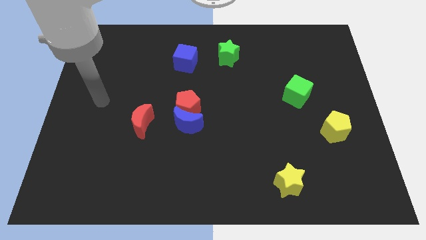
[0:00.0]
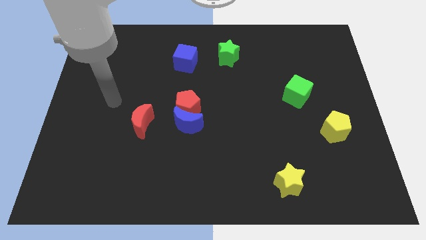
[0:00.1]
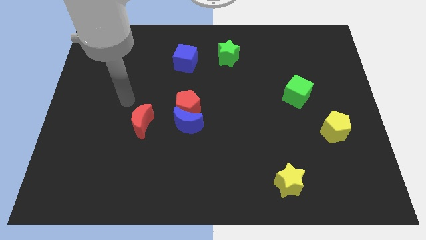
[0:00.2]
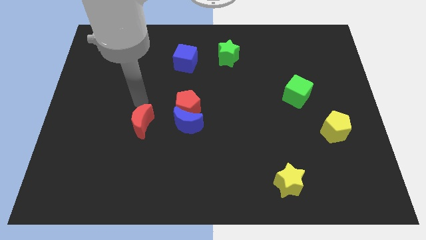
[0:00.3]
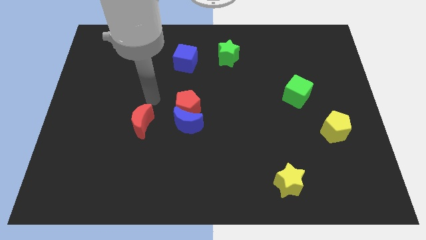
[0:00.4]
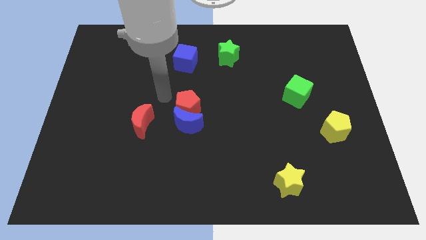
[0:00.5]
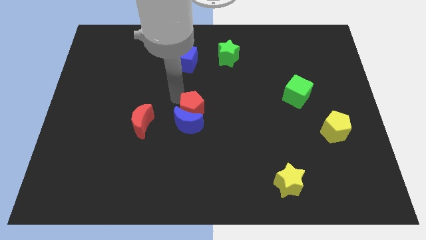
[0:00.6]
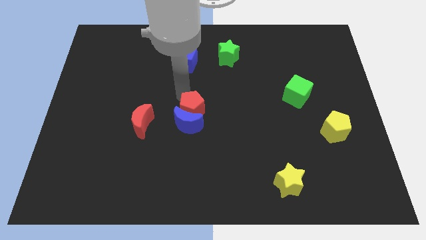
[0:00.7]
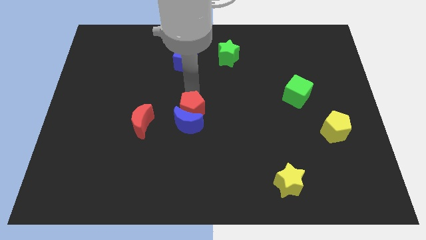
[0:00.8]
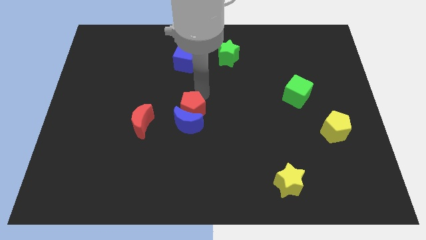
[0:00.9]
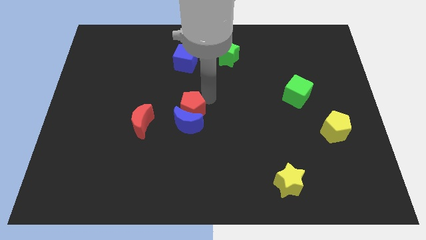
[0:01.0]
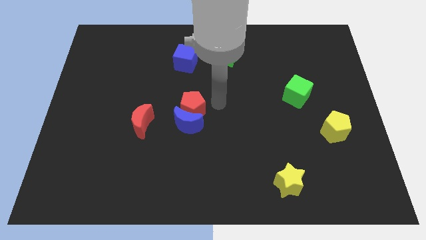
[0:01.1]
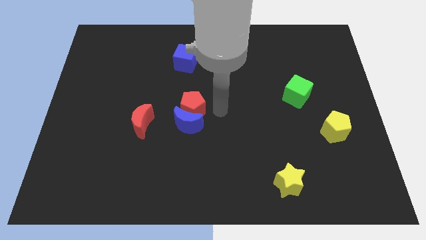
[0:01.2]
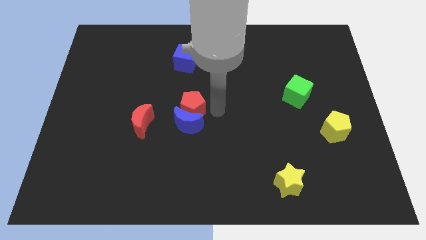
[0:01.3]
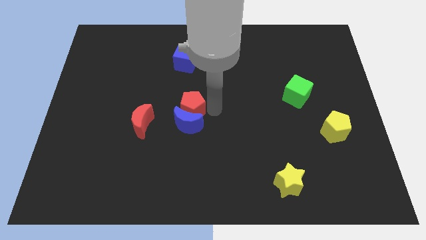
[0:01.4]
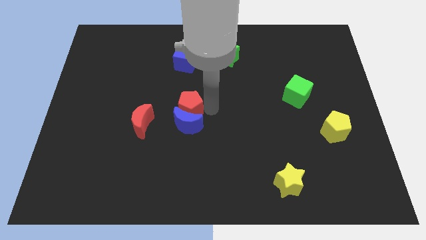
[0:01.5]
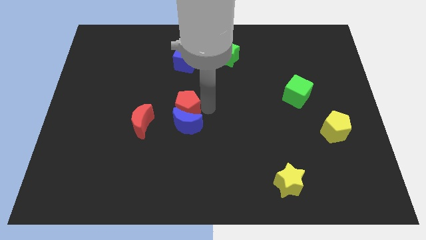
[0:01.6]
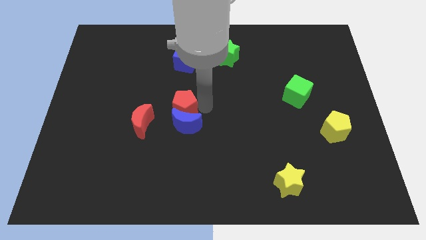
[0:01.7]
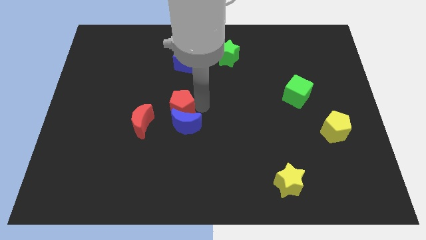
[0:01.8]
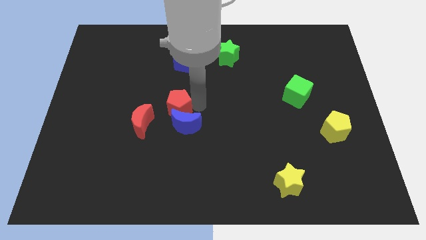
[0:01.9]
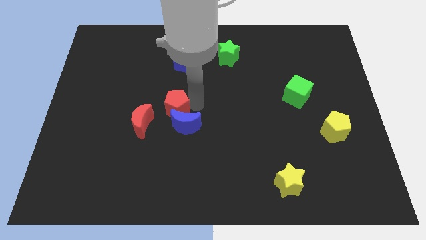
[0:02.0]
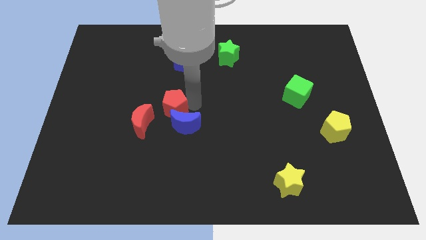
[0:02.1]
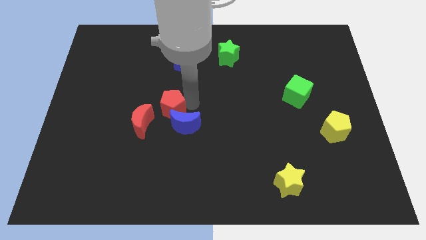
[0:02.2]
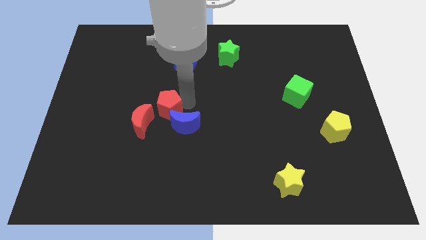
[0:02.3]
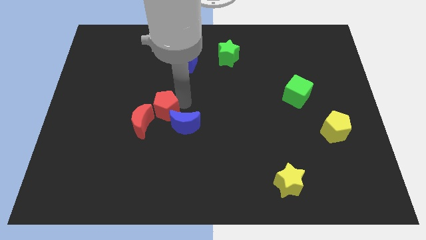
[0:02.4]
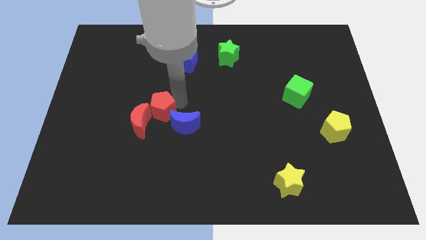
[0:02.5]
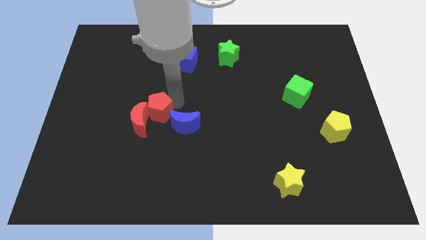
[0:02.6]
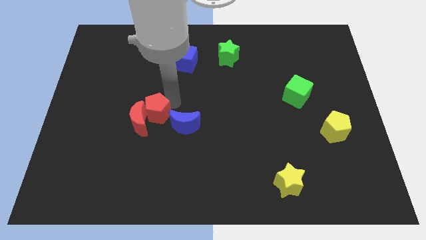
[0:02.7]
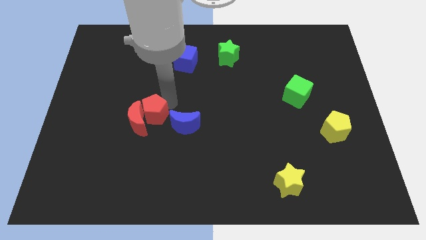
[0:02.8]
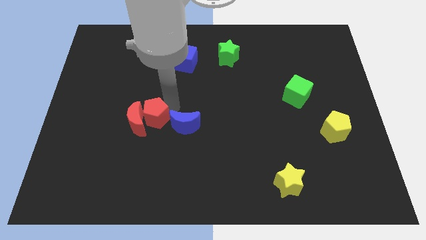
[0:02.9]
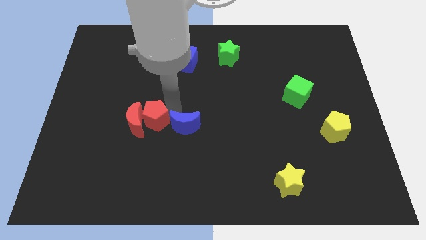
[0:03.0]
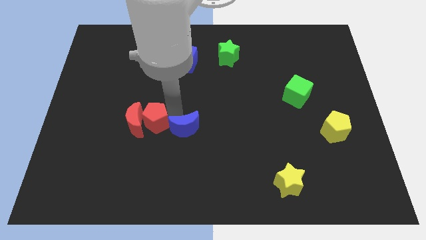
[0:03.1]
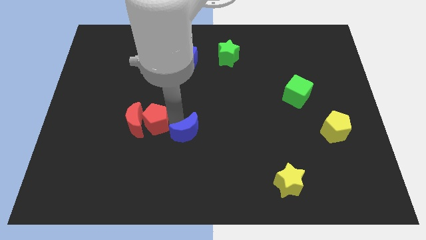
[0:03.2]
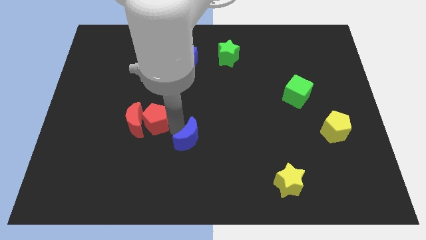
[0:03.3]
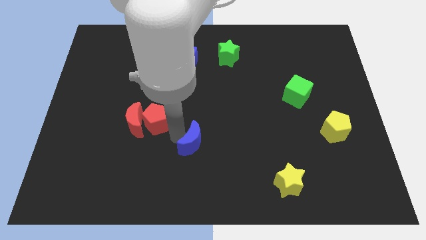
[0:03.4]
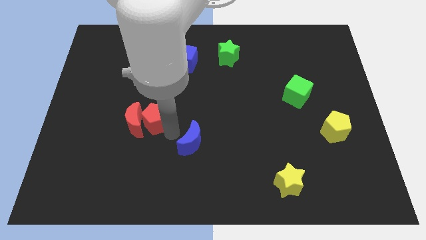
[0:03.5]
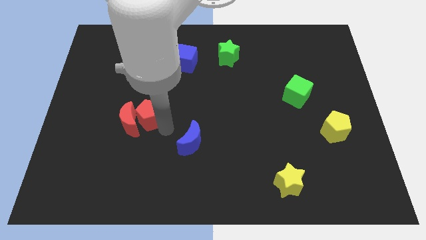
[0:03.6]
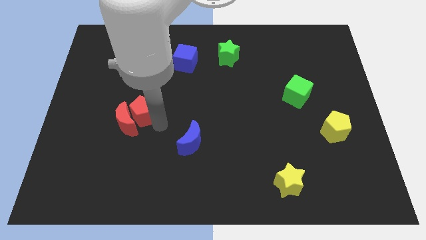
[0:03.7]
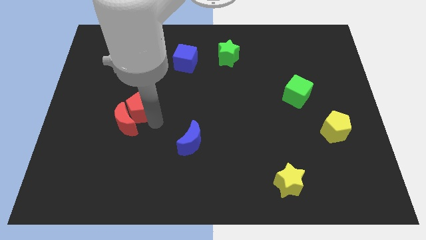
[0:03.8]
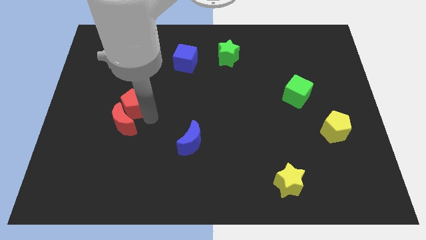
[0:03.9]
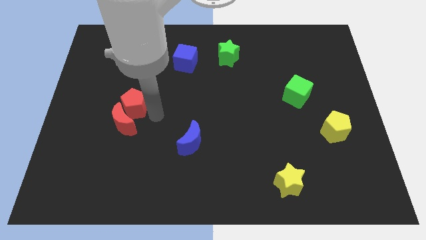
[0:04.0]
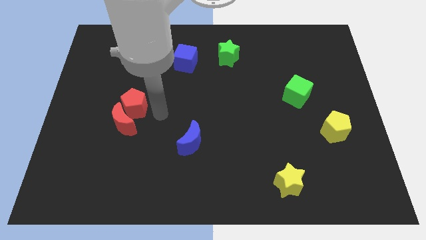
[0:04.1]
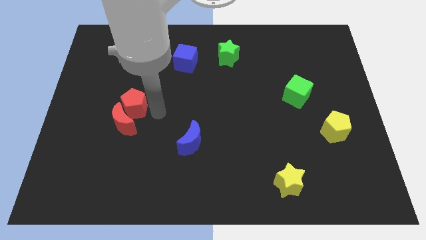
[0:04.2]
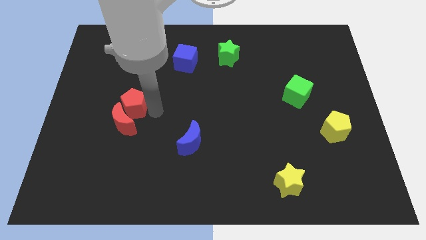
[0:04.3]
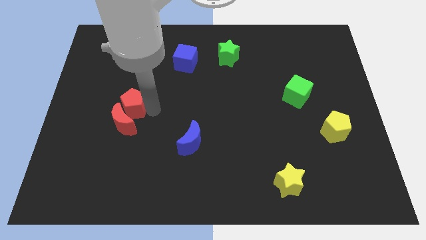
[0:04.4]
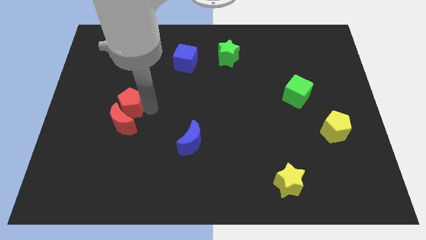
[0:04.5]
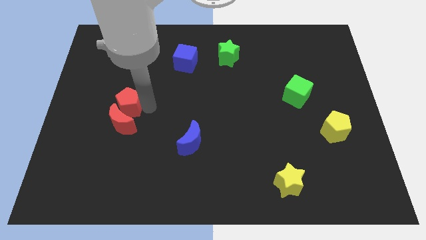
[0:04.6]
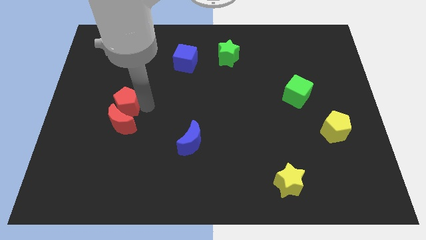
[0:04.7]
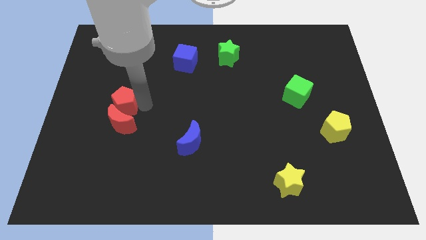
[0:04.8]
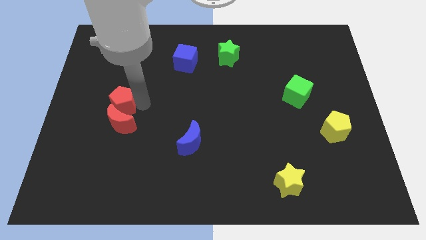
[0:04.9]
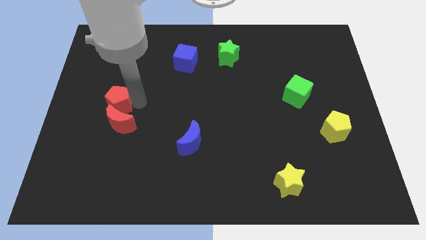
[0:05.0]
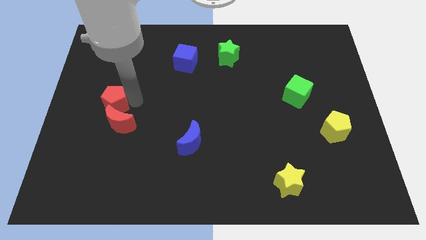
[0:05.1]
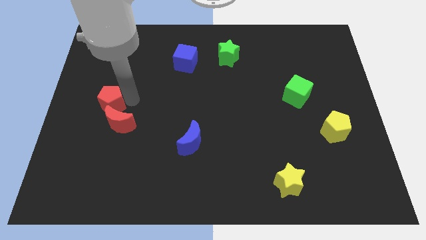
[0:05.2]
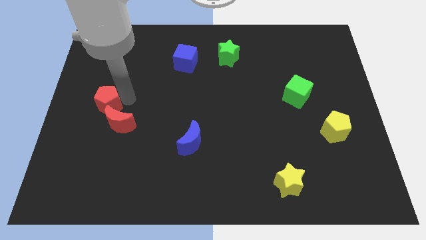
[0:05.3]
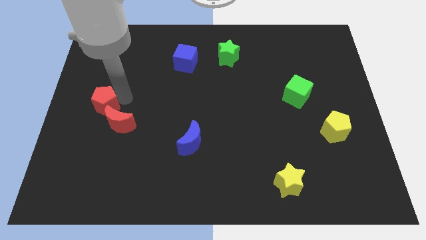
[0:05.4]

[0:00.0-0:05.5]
move the red pentagon to the left side of the board

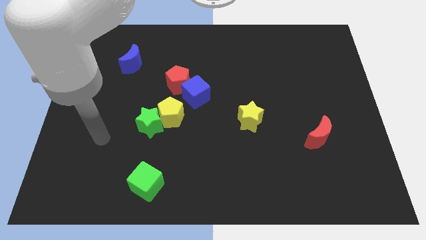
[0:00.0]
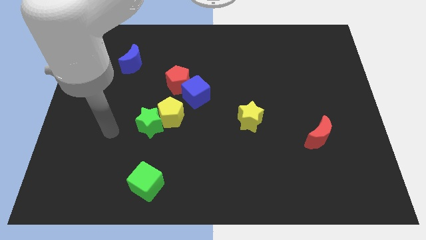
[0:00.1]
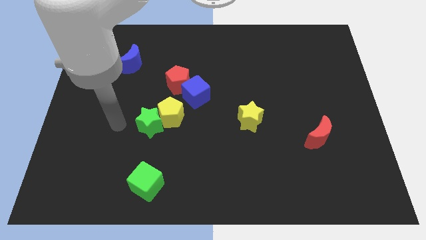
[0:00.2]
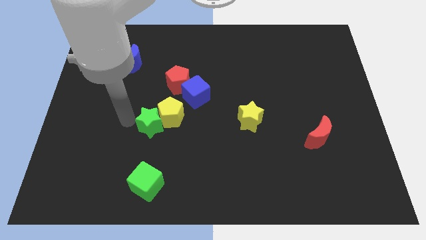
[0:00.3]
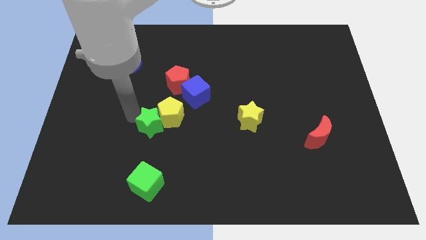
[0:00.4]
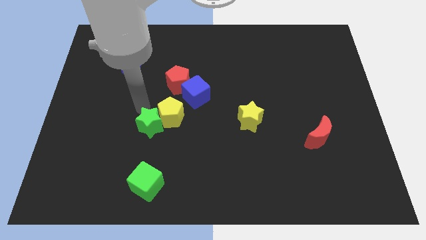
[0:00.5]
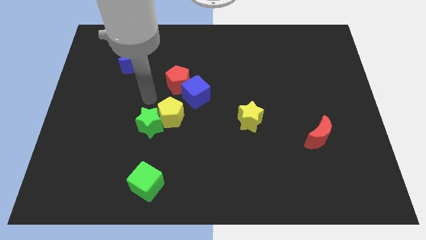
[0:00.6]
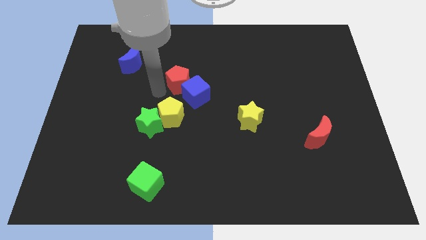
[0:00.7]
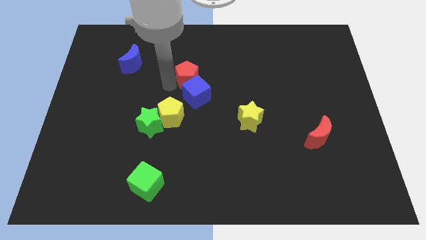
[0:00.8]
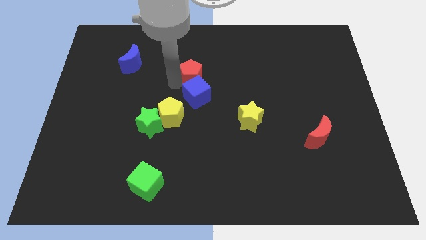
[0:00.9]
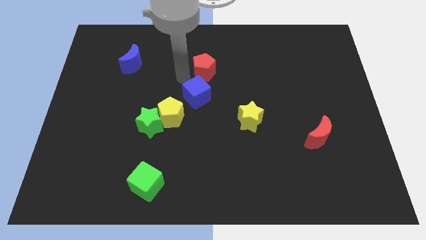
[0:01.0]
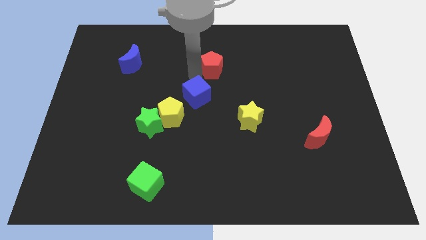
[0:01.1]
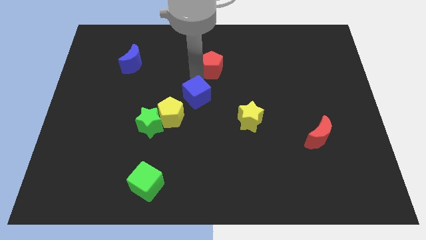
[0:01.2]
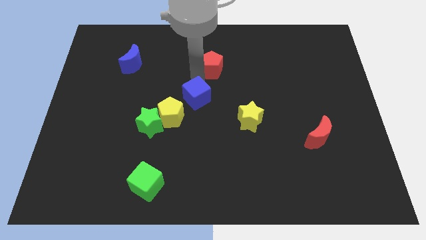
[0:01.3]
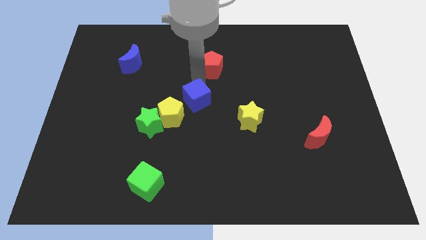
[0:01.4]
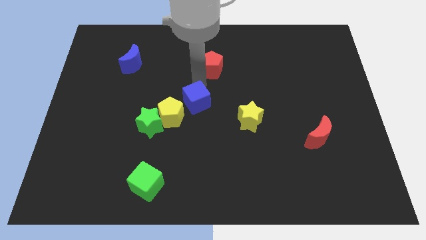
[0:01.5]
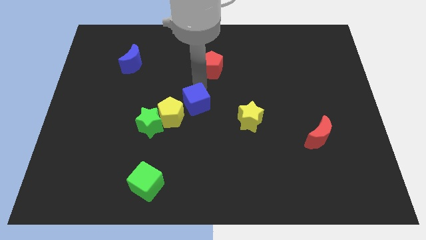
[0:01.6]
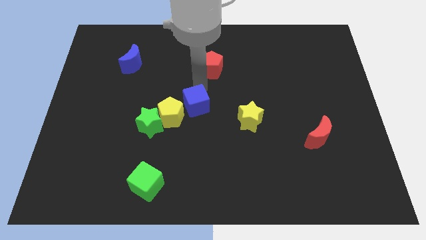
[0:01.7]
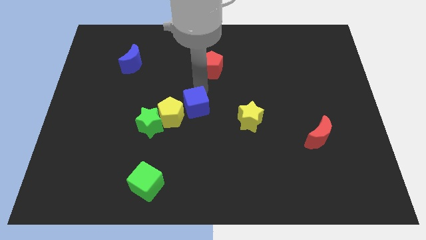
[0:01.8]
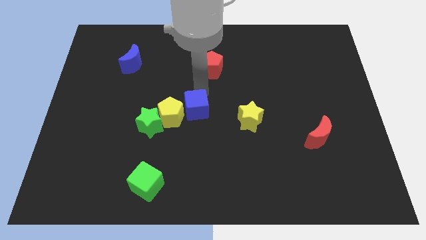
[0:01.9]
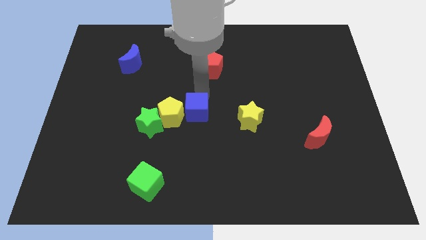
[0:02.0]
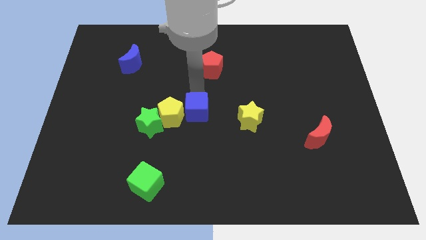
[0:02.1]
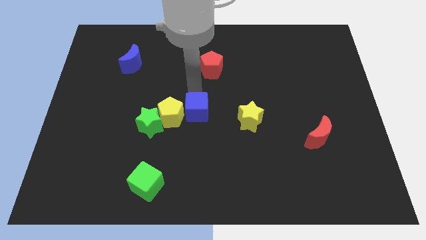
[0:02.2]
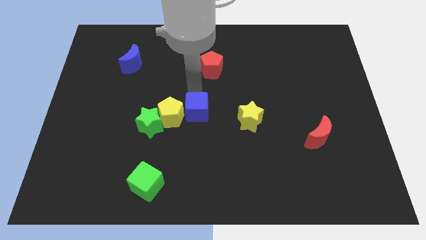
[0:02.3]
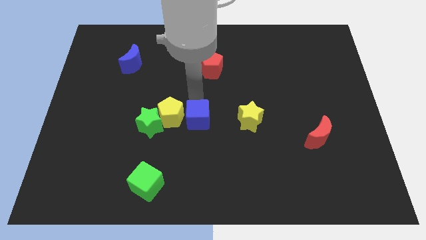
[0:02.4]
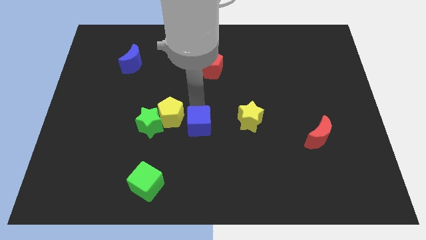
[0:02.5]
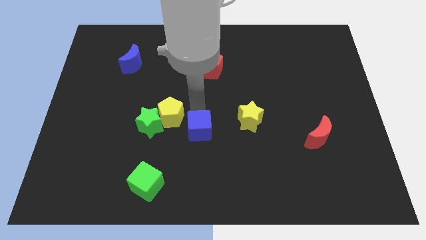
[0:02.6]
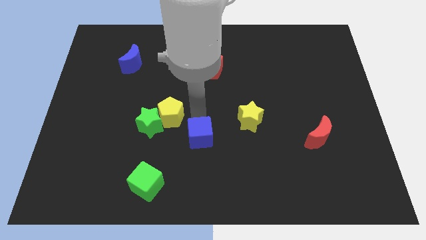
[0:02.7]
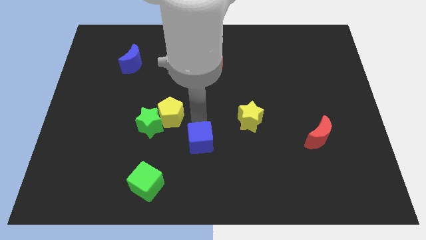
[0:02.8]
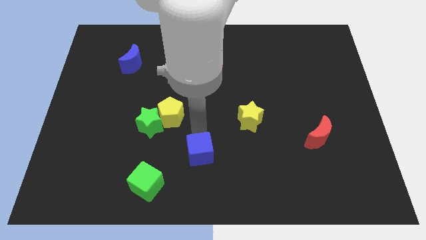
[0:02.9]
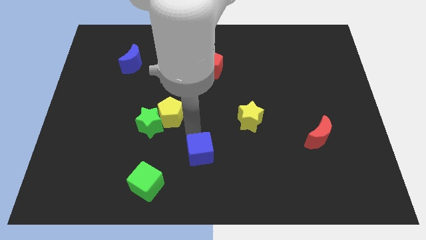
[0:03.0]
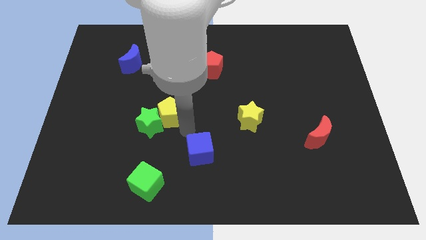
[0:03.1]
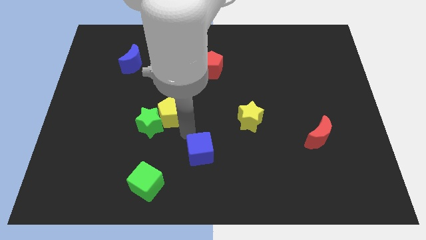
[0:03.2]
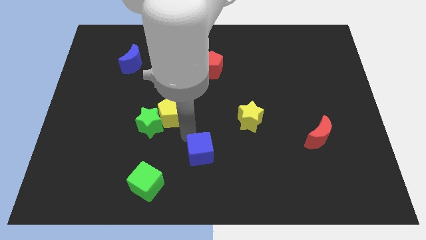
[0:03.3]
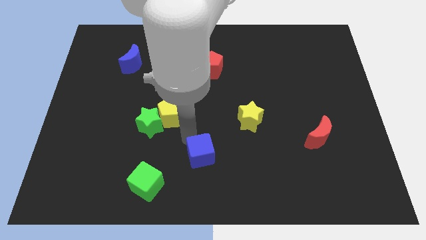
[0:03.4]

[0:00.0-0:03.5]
slide the blue cube to the bottom side
